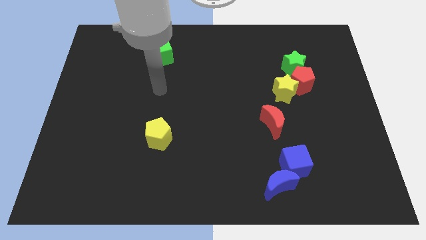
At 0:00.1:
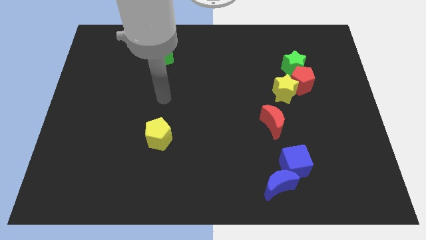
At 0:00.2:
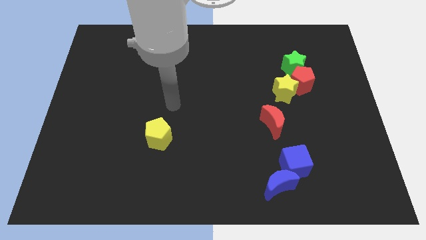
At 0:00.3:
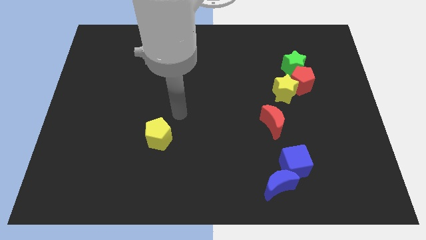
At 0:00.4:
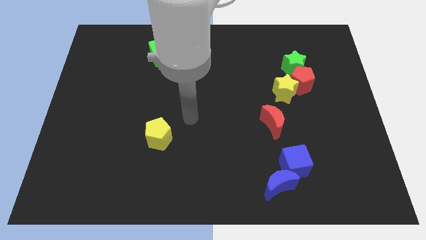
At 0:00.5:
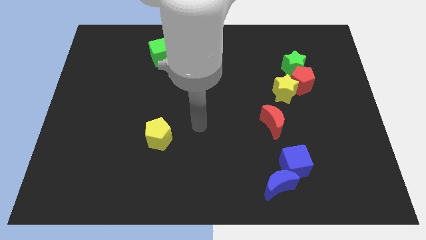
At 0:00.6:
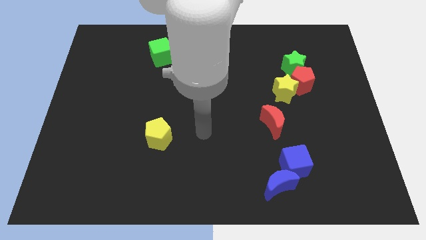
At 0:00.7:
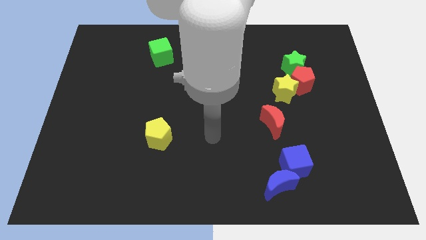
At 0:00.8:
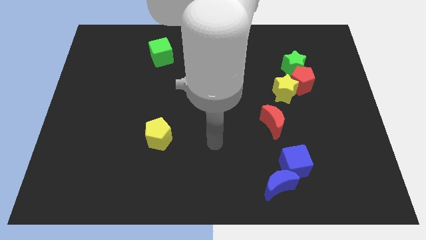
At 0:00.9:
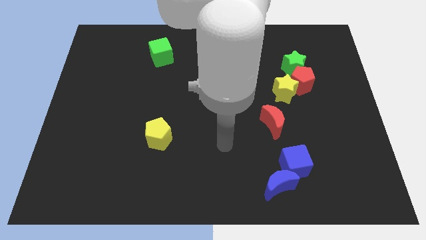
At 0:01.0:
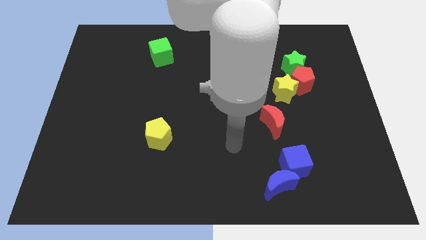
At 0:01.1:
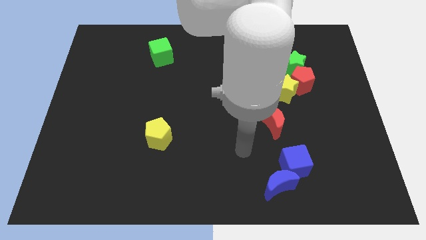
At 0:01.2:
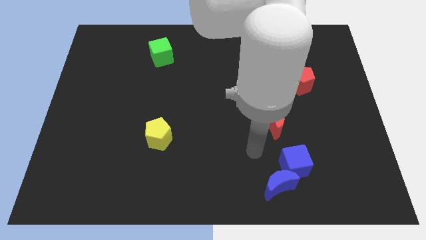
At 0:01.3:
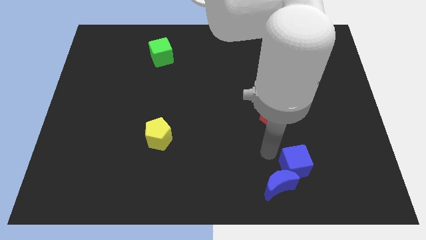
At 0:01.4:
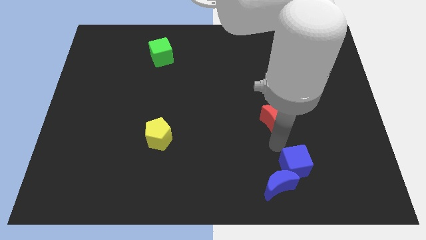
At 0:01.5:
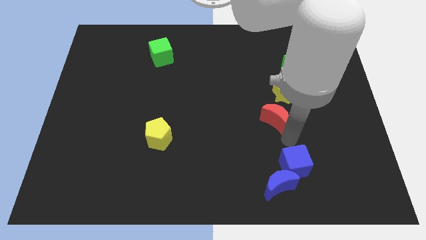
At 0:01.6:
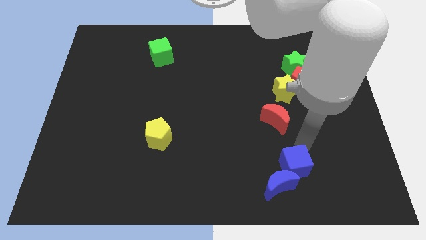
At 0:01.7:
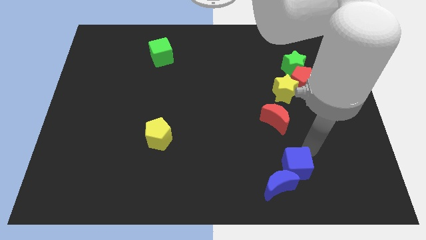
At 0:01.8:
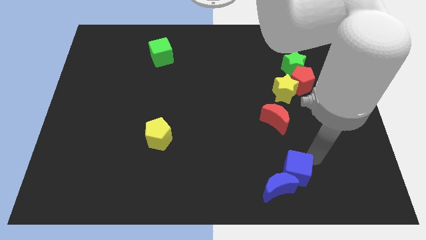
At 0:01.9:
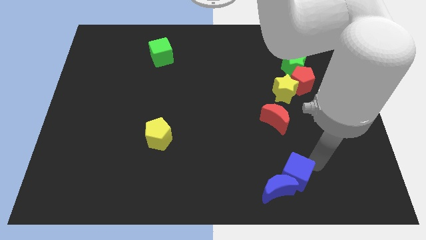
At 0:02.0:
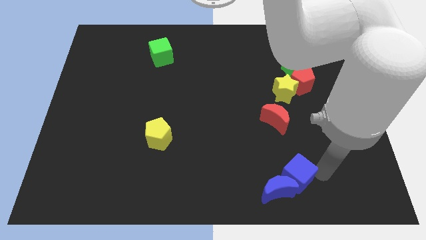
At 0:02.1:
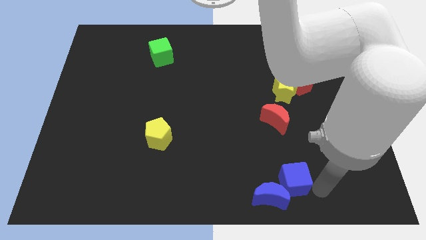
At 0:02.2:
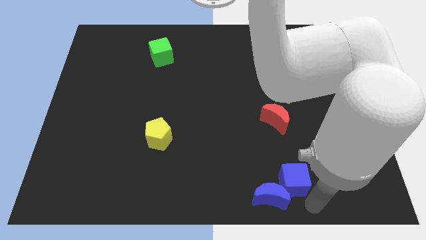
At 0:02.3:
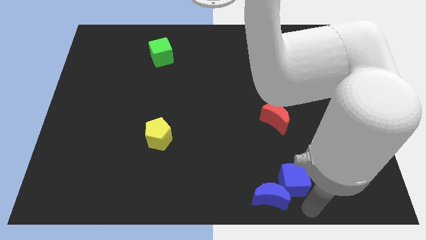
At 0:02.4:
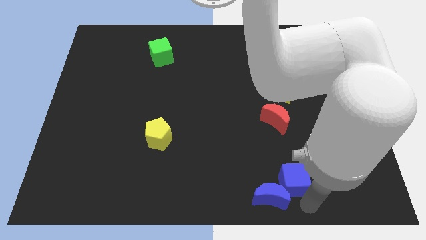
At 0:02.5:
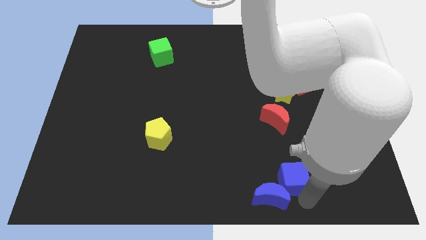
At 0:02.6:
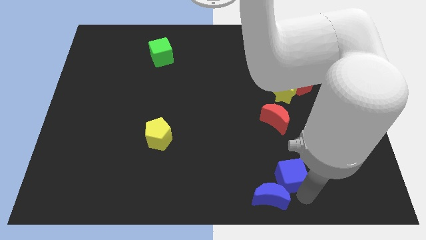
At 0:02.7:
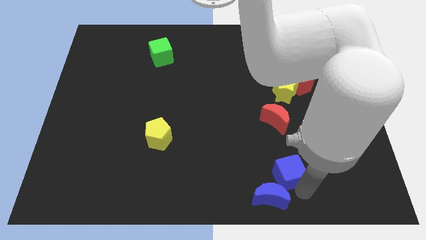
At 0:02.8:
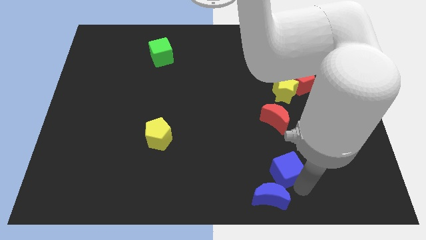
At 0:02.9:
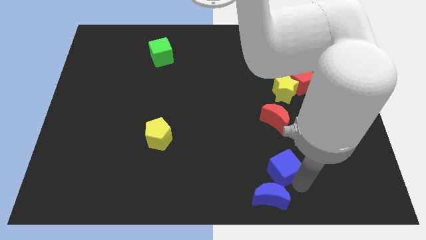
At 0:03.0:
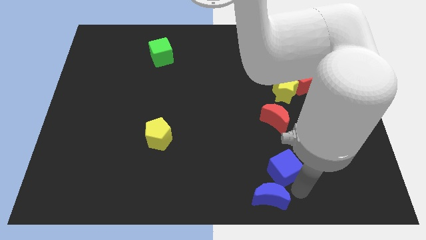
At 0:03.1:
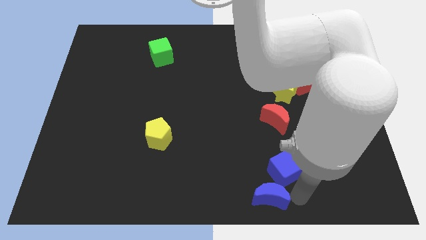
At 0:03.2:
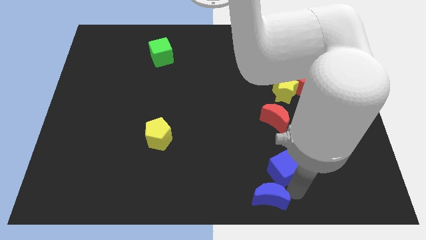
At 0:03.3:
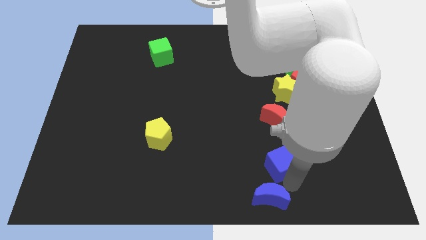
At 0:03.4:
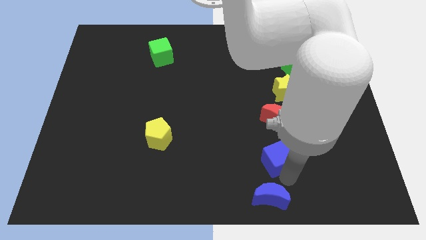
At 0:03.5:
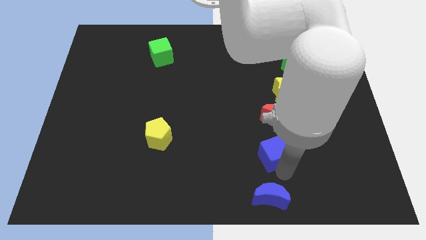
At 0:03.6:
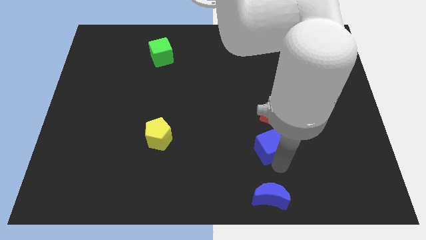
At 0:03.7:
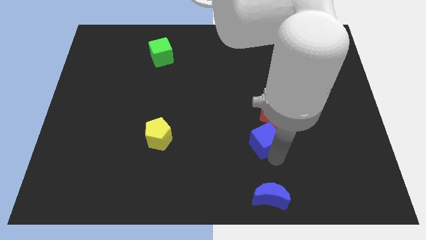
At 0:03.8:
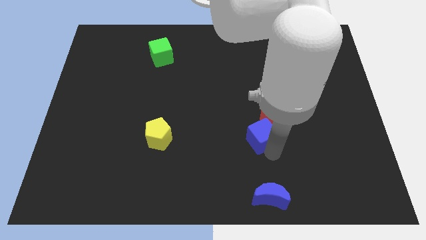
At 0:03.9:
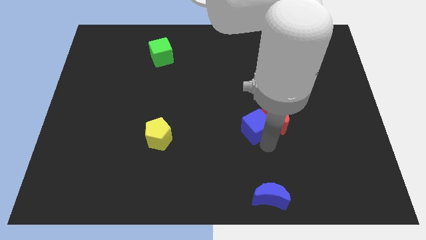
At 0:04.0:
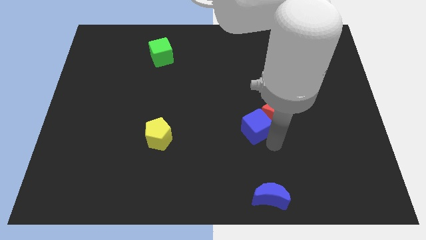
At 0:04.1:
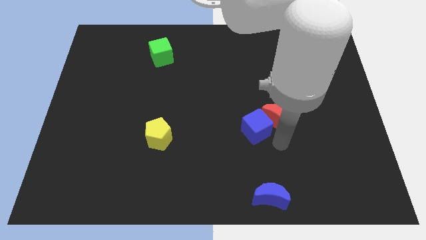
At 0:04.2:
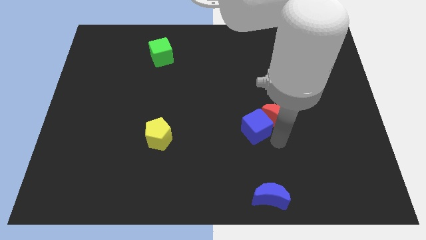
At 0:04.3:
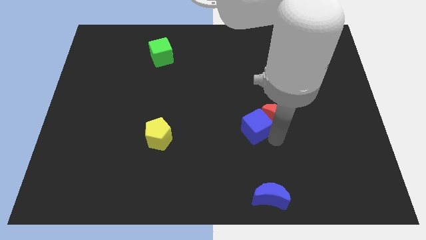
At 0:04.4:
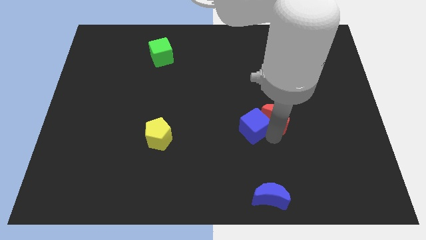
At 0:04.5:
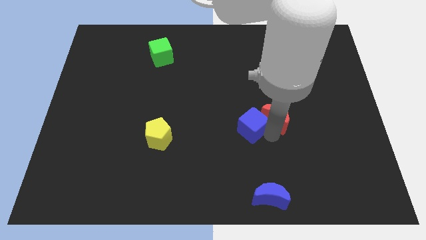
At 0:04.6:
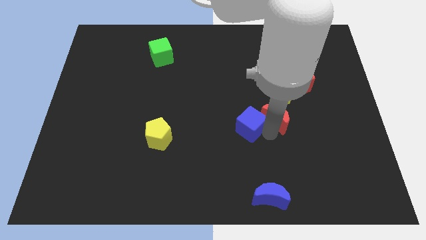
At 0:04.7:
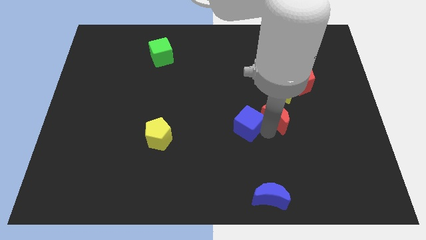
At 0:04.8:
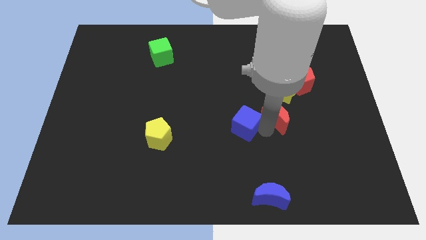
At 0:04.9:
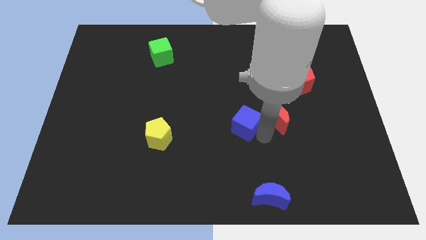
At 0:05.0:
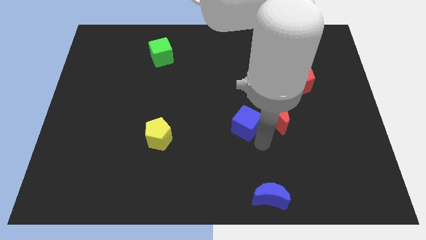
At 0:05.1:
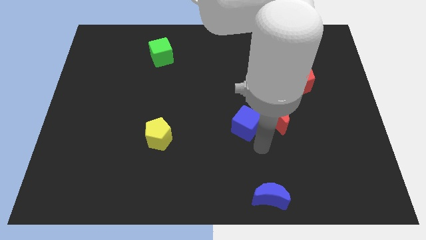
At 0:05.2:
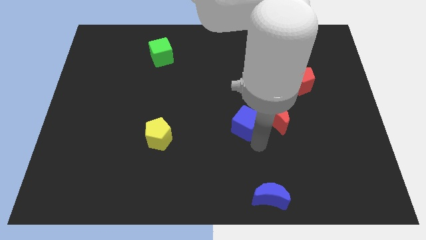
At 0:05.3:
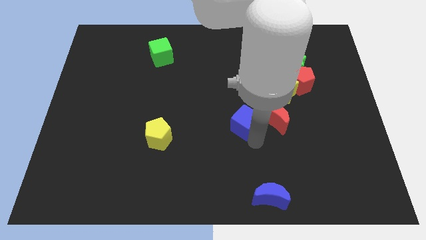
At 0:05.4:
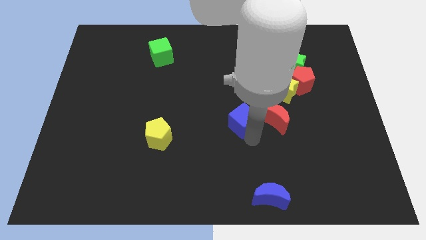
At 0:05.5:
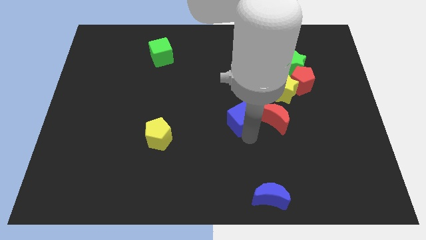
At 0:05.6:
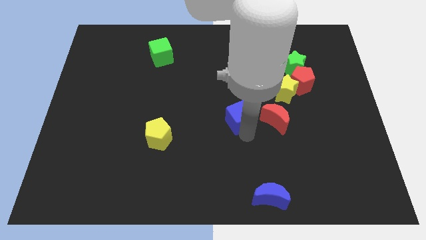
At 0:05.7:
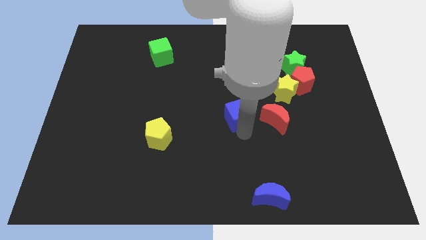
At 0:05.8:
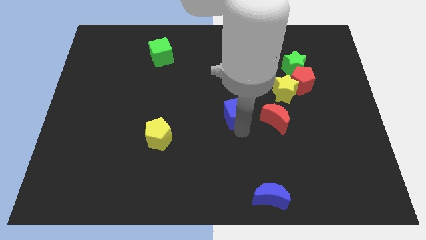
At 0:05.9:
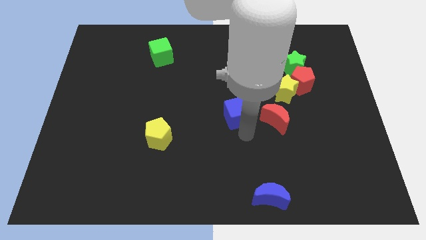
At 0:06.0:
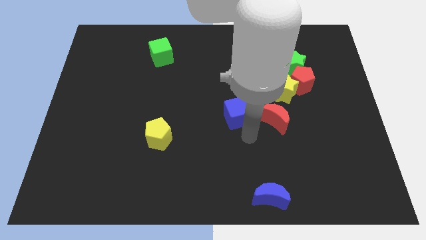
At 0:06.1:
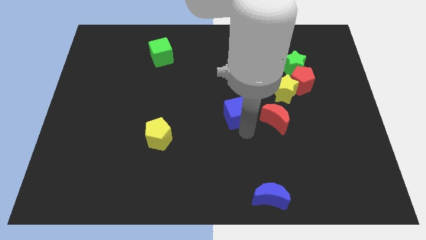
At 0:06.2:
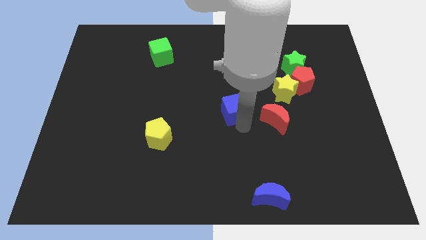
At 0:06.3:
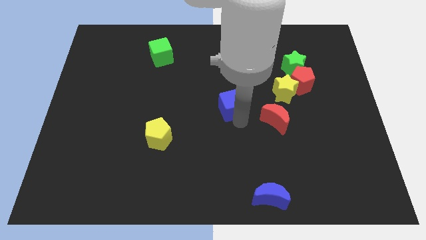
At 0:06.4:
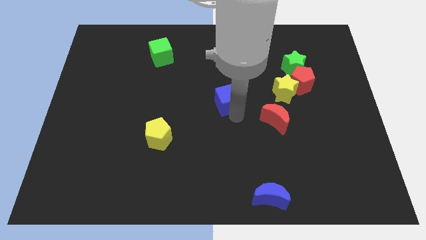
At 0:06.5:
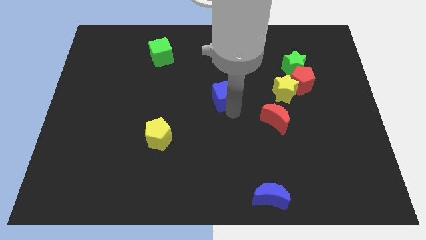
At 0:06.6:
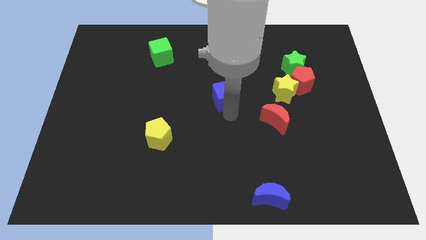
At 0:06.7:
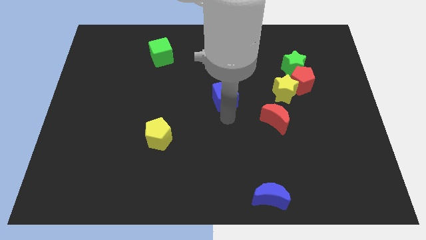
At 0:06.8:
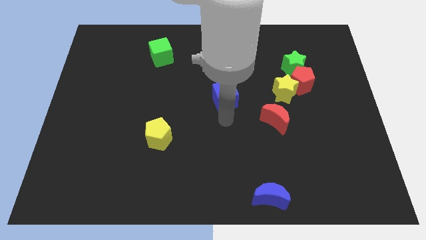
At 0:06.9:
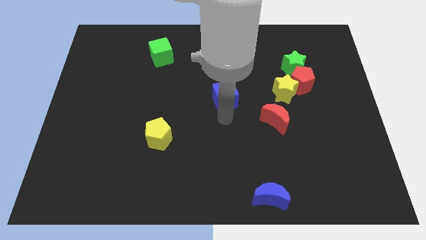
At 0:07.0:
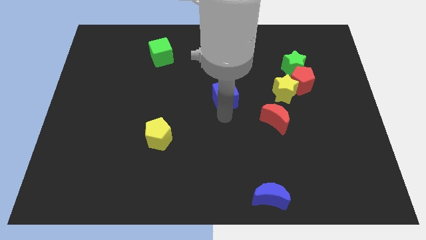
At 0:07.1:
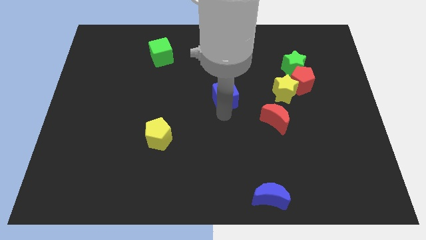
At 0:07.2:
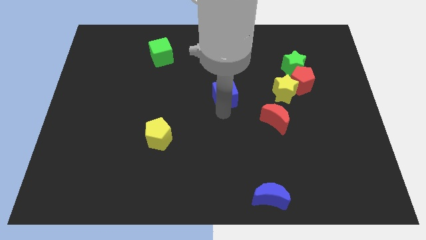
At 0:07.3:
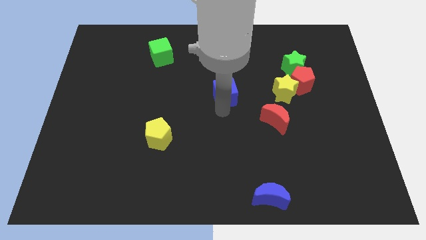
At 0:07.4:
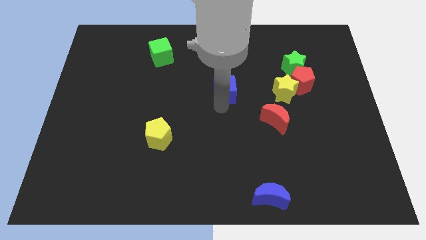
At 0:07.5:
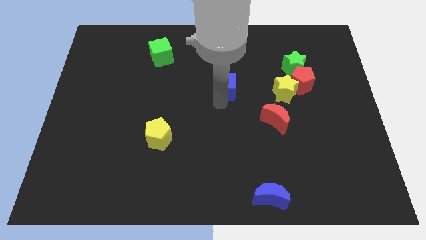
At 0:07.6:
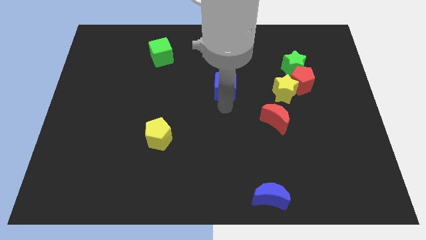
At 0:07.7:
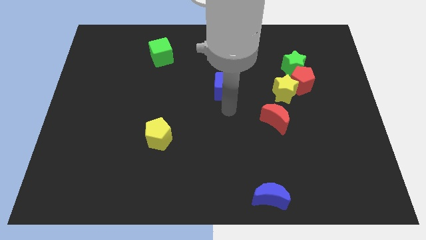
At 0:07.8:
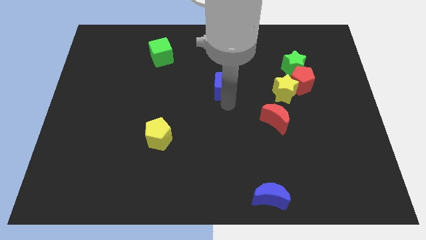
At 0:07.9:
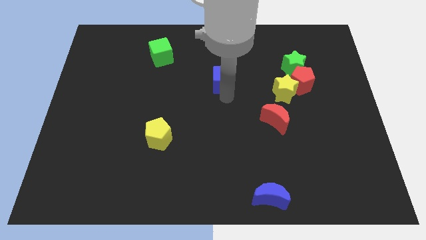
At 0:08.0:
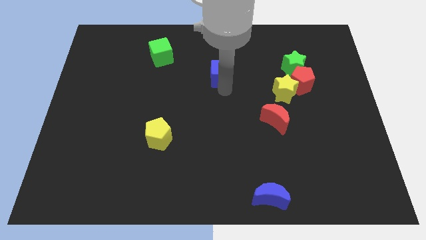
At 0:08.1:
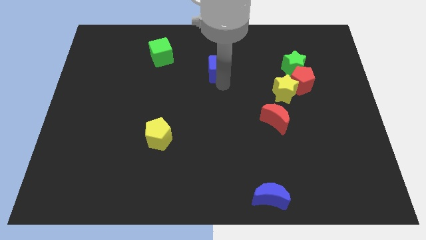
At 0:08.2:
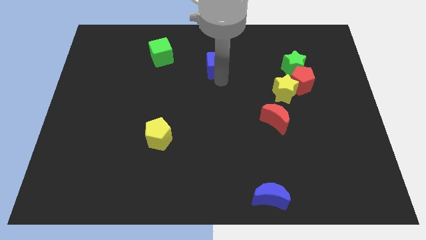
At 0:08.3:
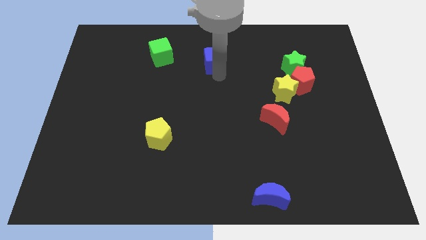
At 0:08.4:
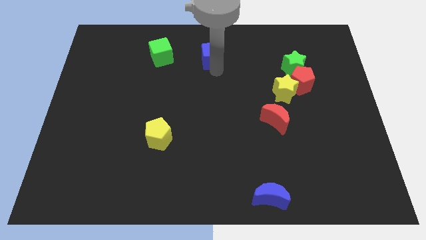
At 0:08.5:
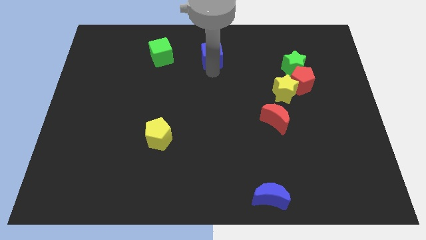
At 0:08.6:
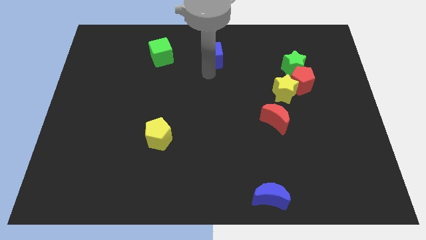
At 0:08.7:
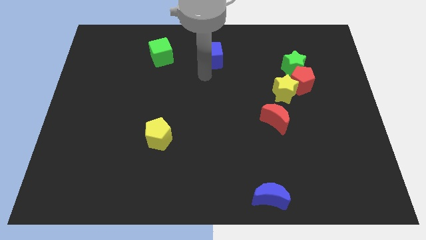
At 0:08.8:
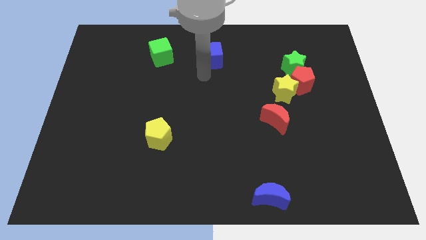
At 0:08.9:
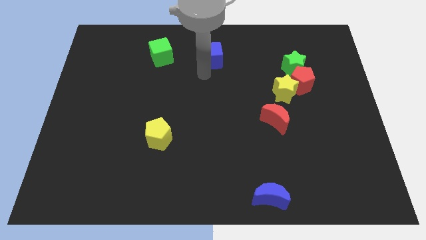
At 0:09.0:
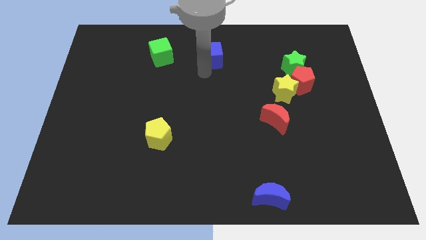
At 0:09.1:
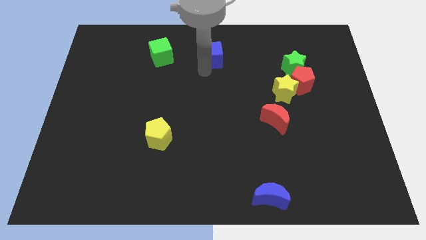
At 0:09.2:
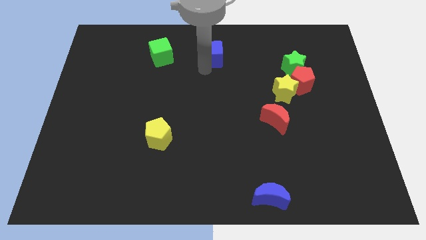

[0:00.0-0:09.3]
move the blue cube to the towards your base
